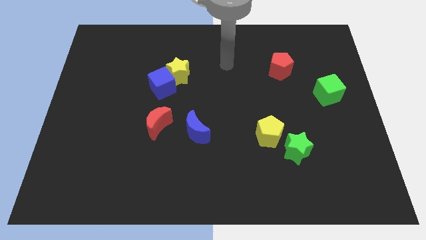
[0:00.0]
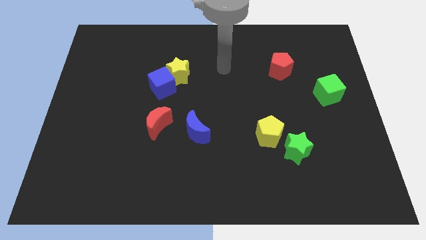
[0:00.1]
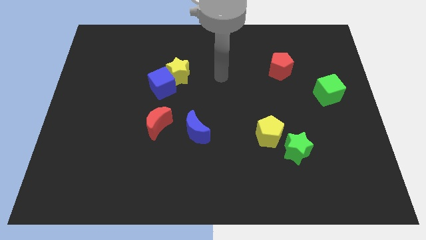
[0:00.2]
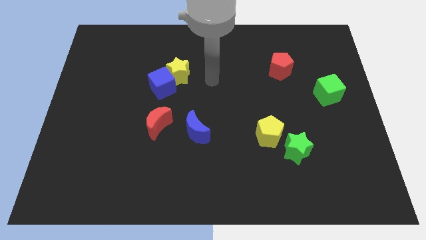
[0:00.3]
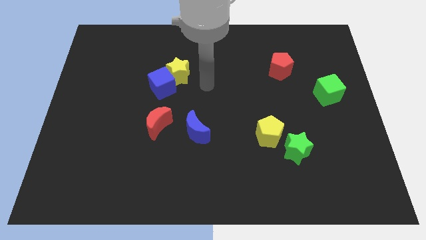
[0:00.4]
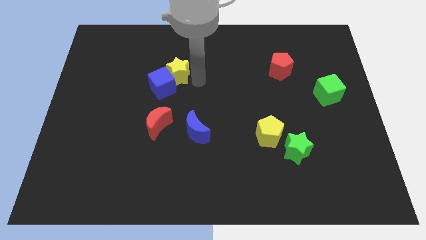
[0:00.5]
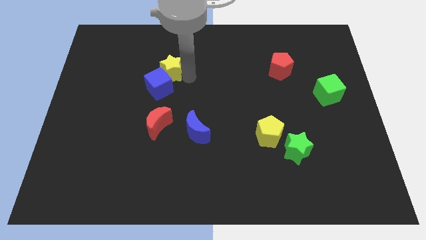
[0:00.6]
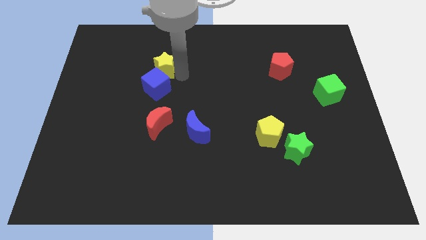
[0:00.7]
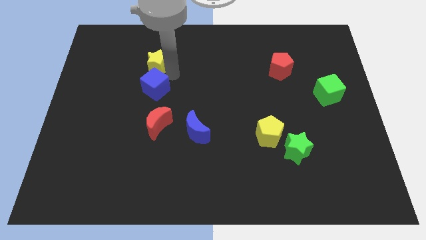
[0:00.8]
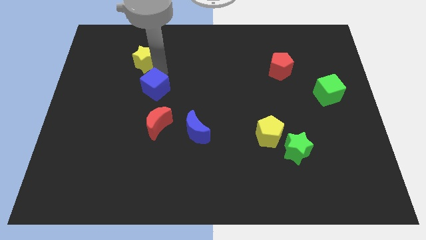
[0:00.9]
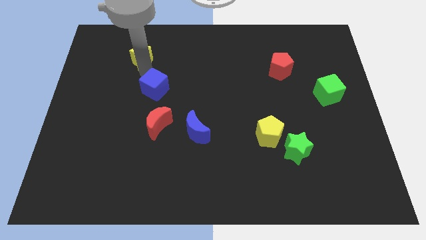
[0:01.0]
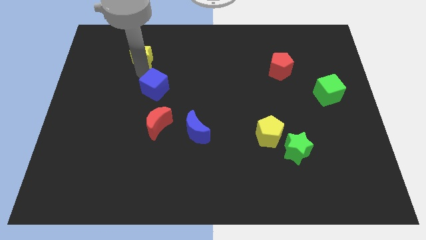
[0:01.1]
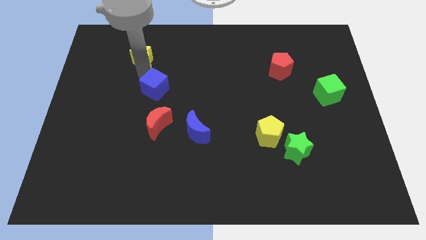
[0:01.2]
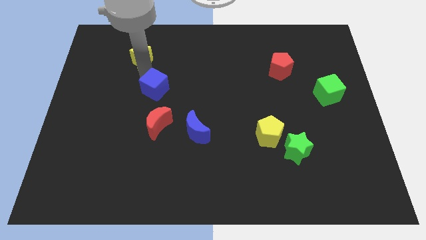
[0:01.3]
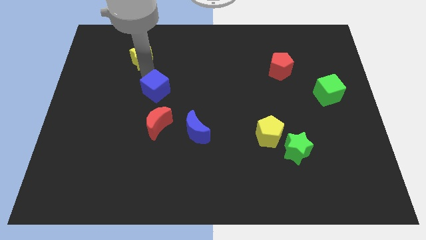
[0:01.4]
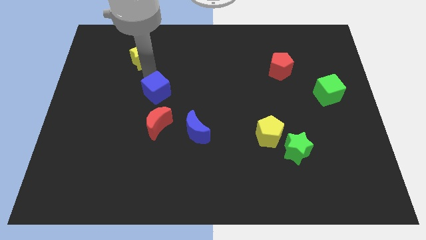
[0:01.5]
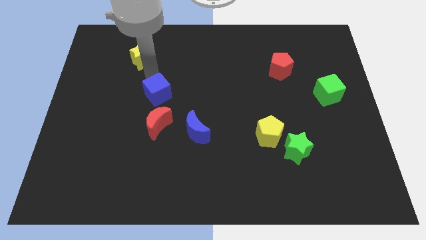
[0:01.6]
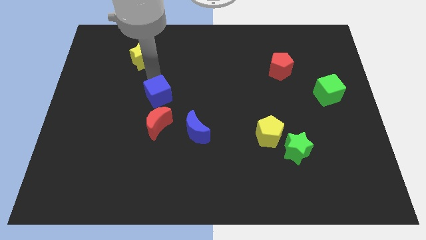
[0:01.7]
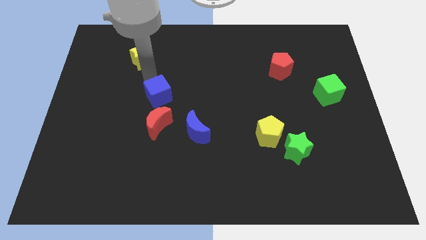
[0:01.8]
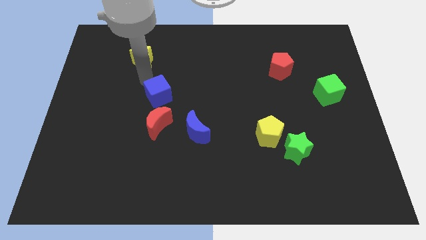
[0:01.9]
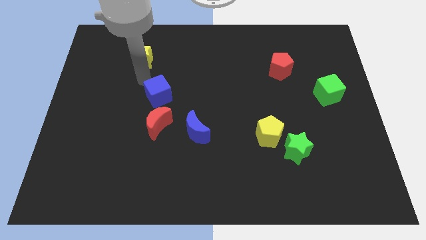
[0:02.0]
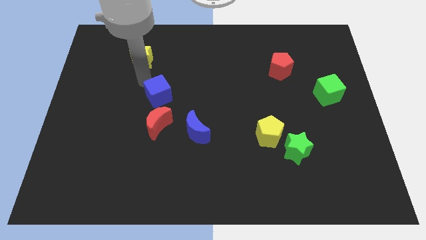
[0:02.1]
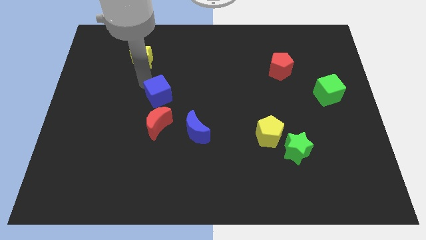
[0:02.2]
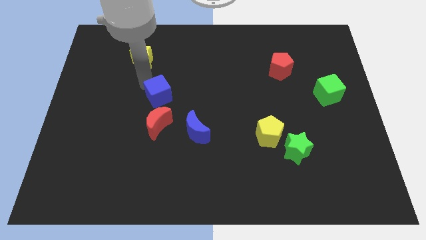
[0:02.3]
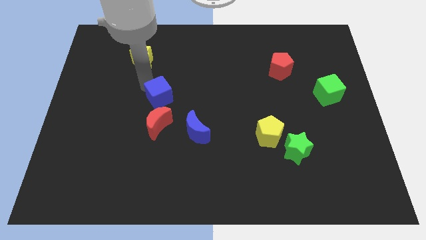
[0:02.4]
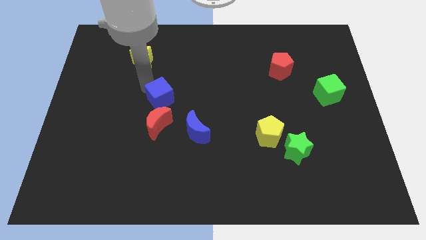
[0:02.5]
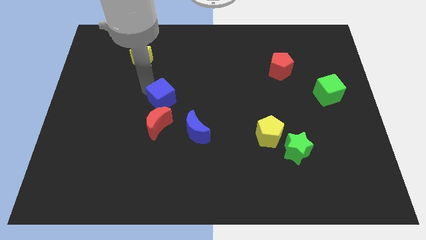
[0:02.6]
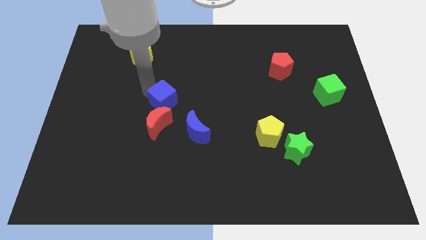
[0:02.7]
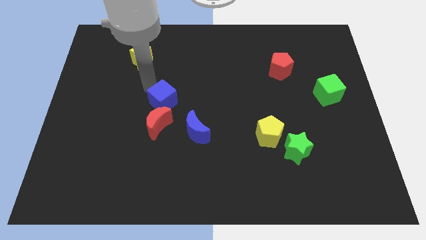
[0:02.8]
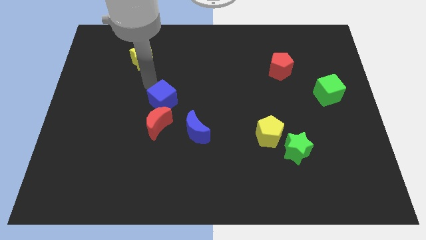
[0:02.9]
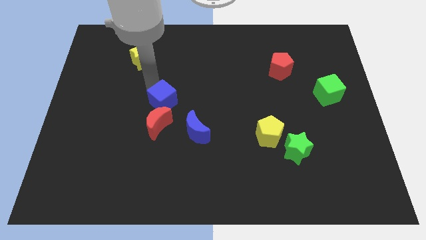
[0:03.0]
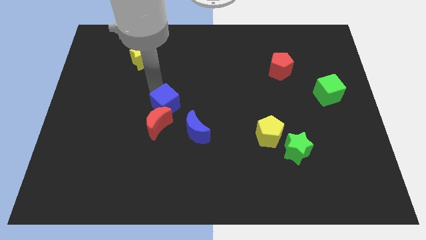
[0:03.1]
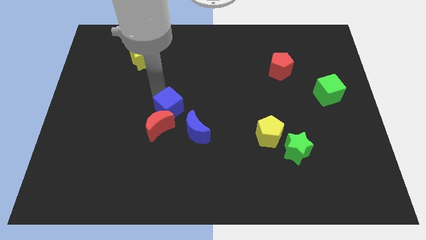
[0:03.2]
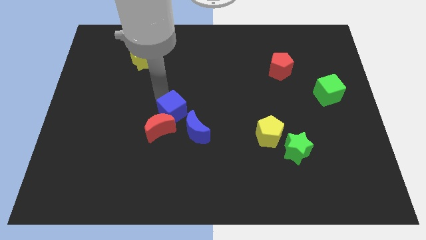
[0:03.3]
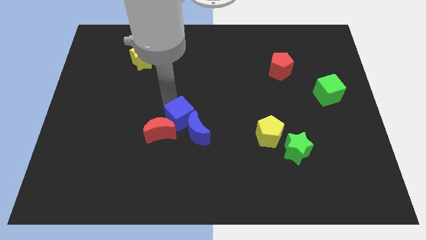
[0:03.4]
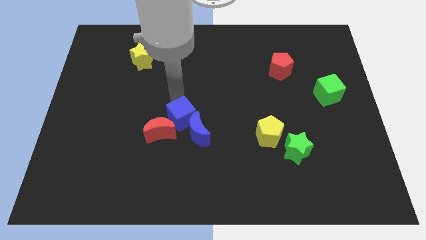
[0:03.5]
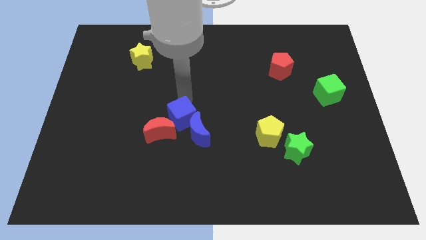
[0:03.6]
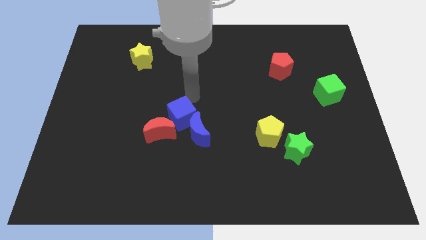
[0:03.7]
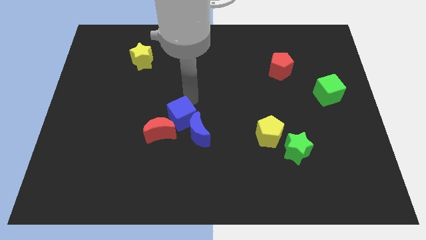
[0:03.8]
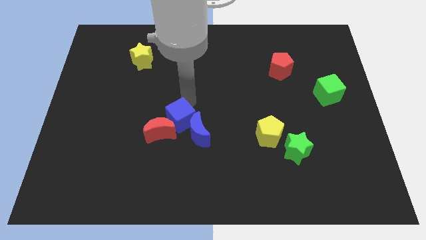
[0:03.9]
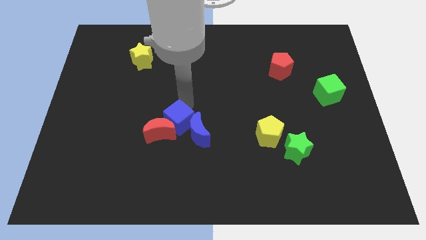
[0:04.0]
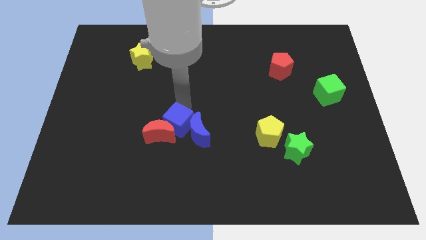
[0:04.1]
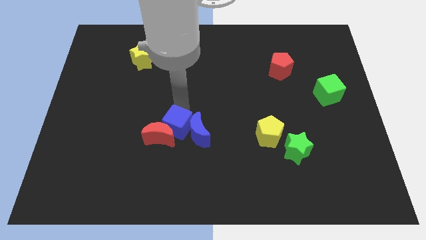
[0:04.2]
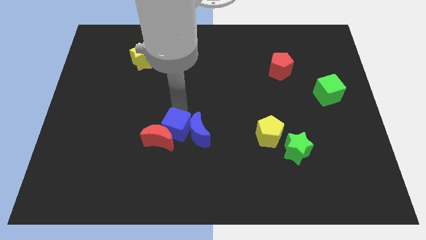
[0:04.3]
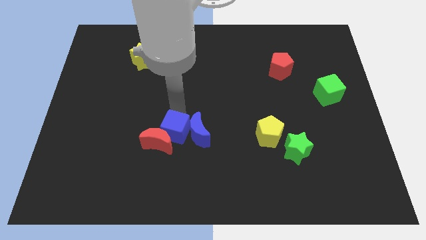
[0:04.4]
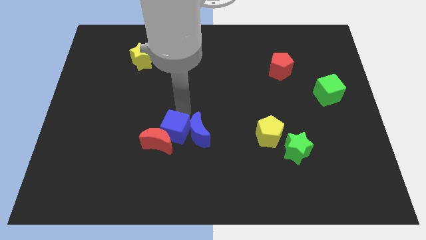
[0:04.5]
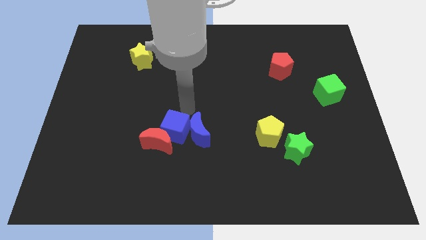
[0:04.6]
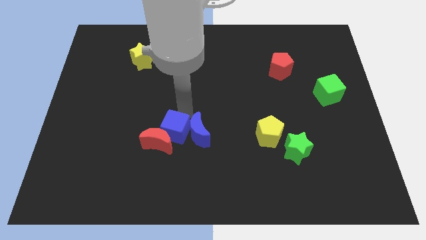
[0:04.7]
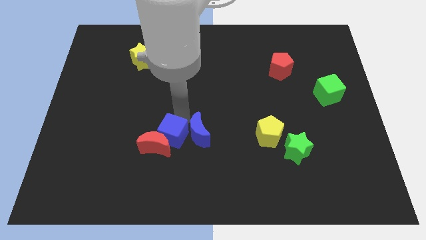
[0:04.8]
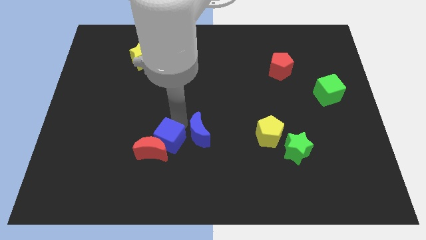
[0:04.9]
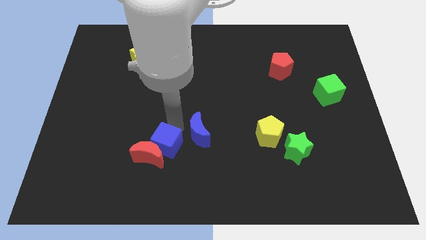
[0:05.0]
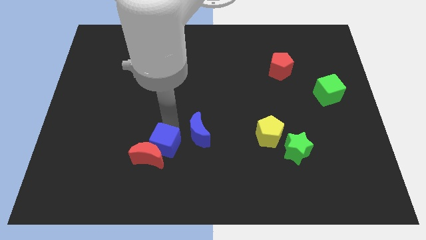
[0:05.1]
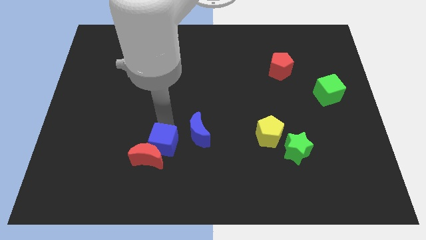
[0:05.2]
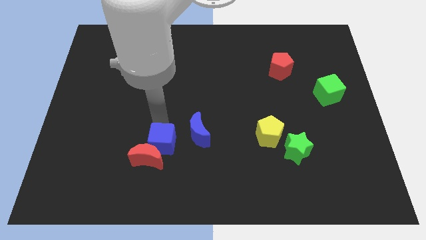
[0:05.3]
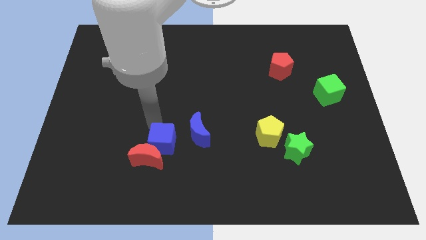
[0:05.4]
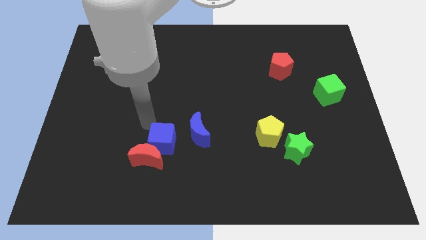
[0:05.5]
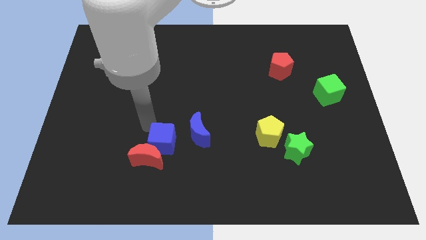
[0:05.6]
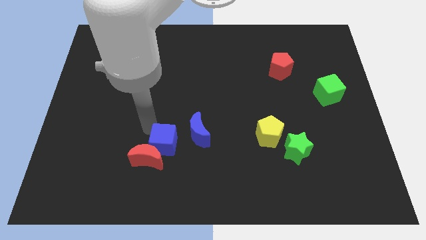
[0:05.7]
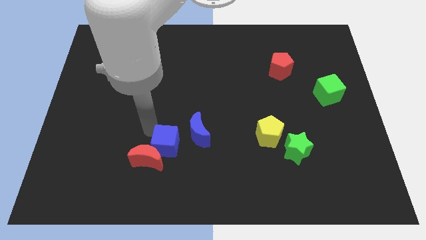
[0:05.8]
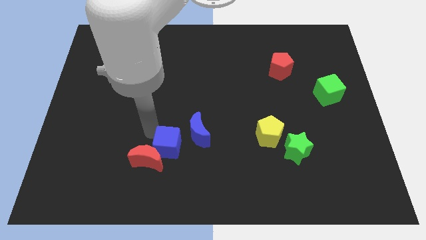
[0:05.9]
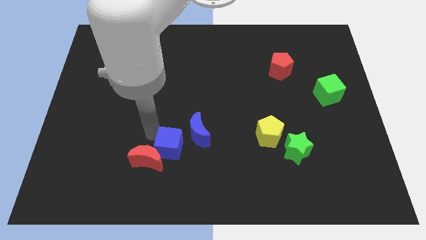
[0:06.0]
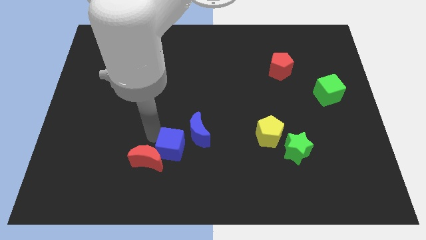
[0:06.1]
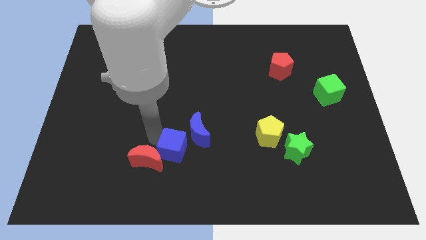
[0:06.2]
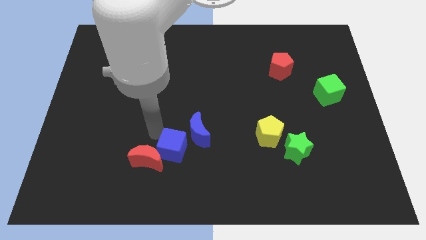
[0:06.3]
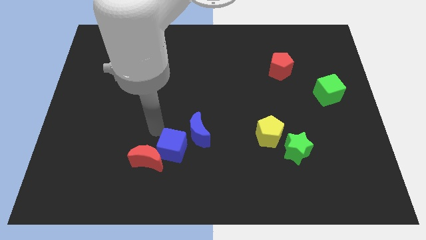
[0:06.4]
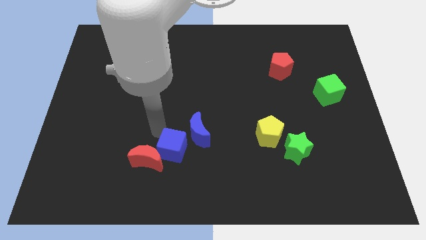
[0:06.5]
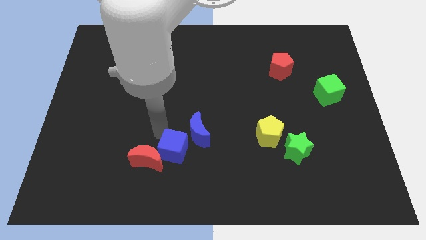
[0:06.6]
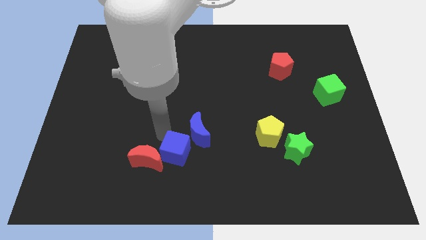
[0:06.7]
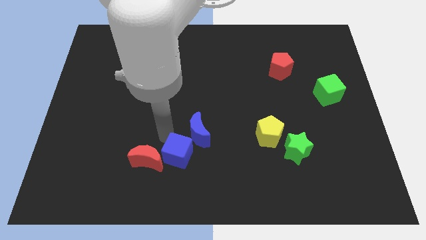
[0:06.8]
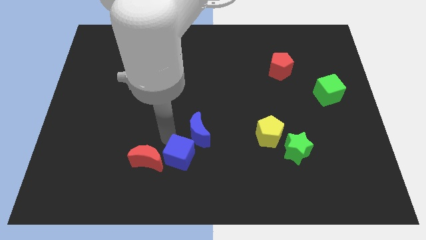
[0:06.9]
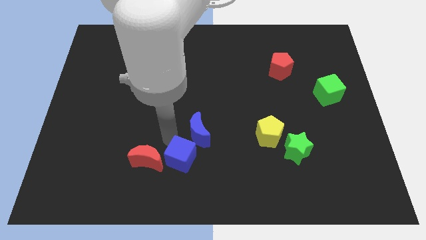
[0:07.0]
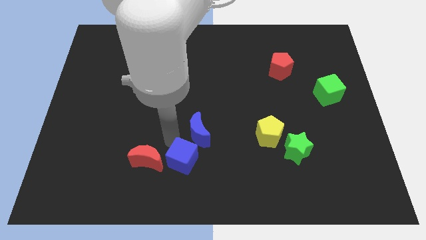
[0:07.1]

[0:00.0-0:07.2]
put the blue cube to the bottom
